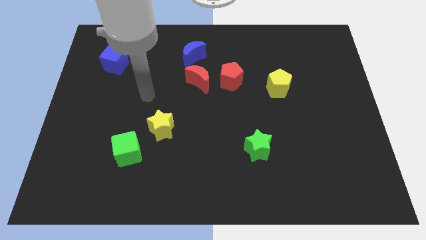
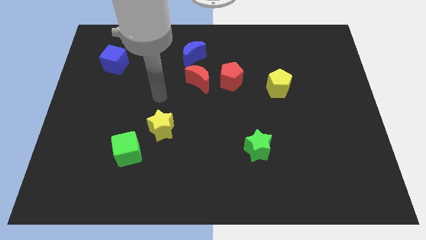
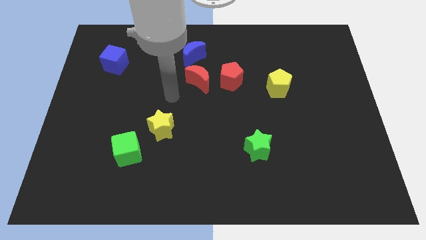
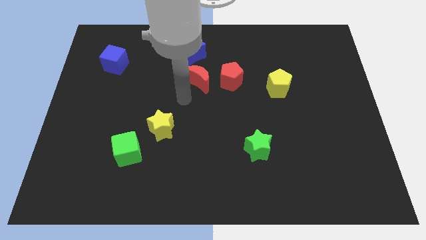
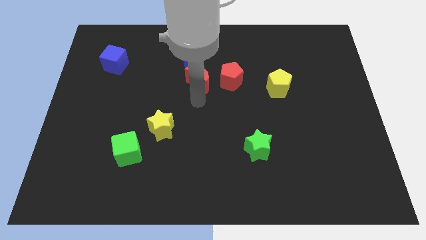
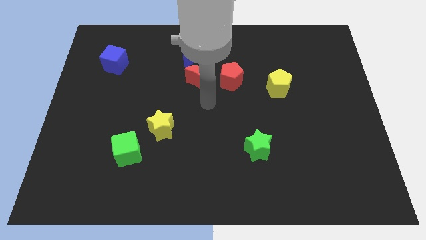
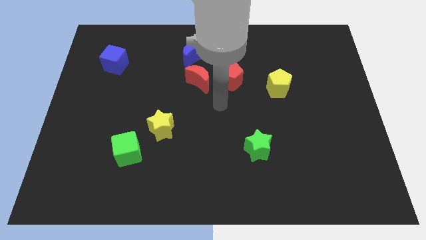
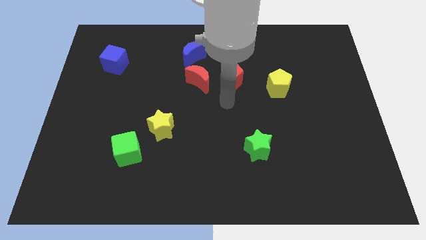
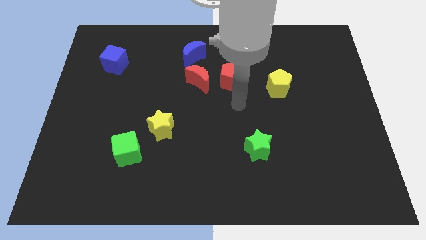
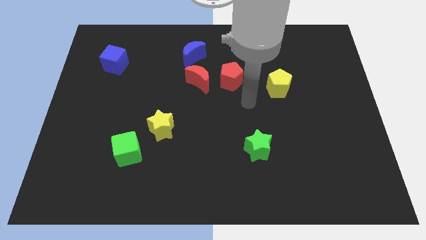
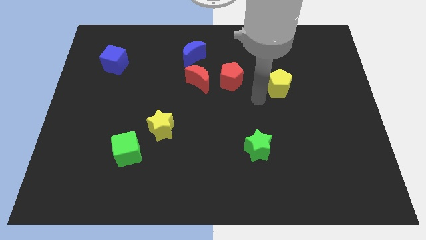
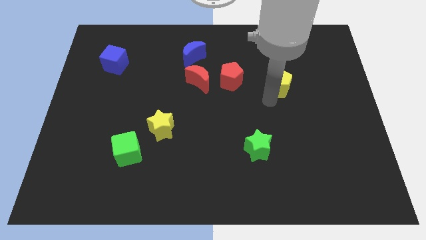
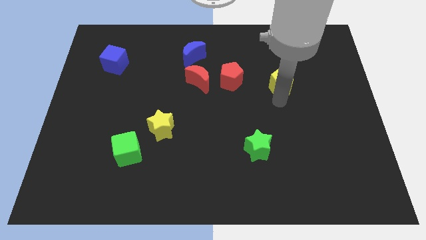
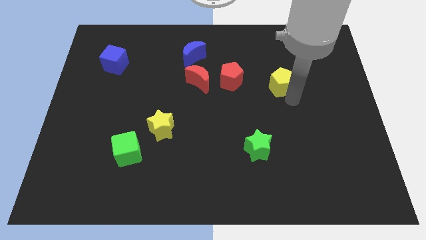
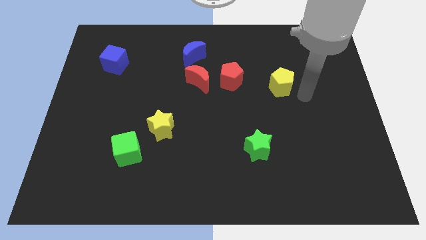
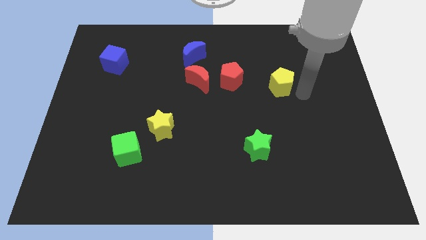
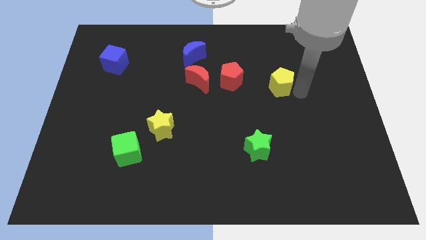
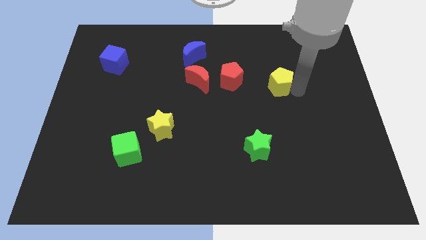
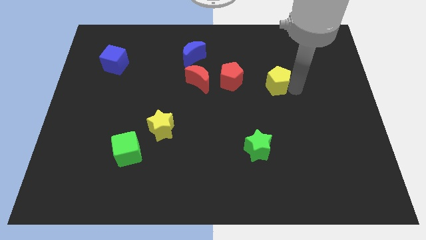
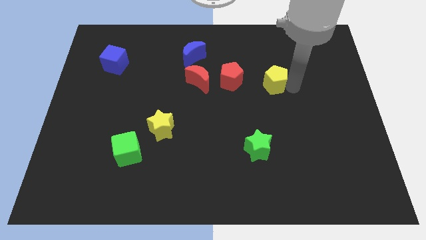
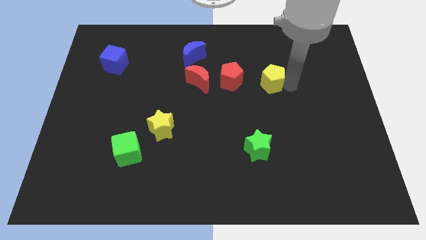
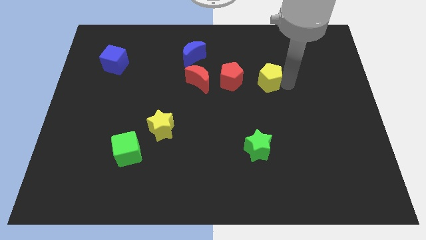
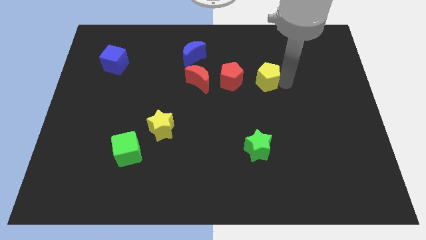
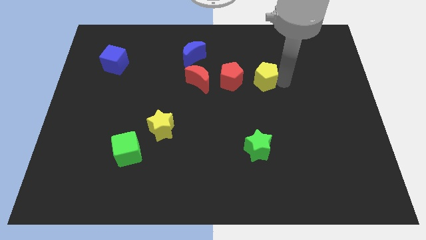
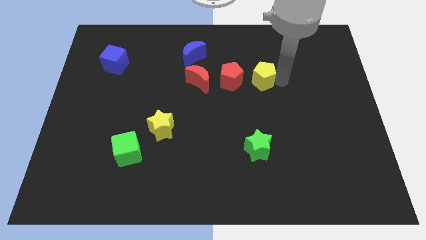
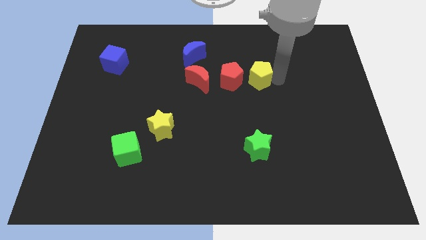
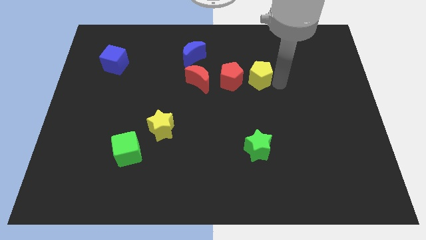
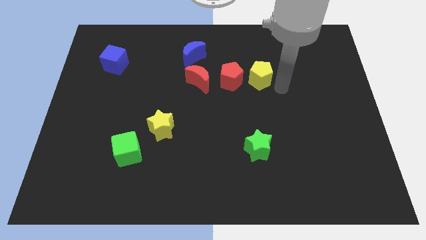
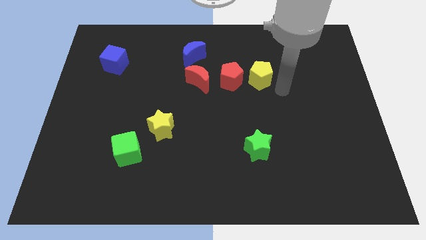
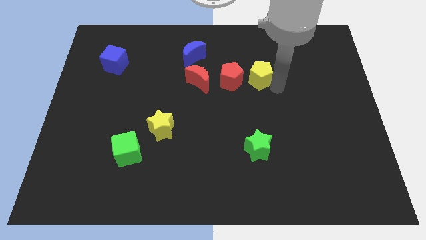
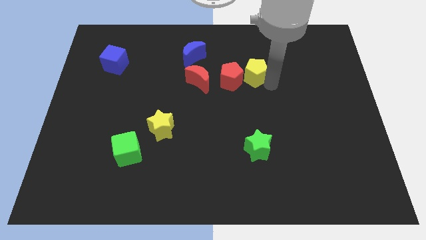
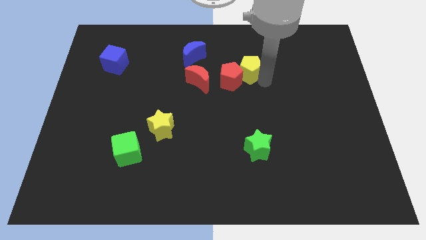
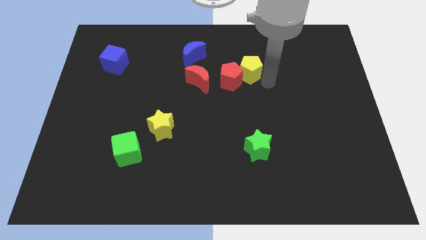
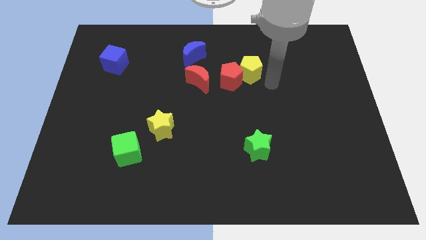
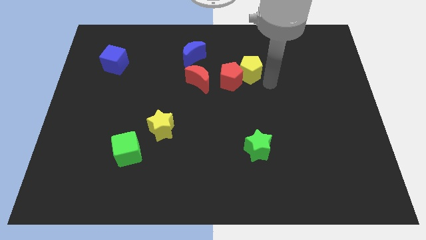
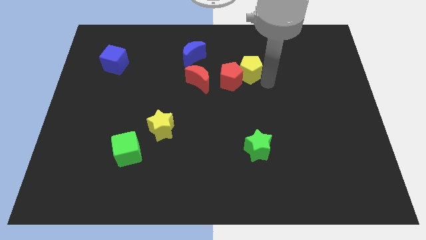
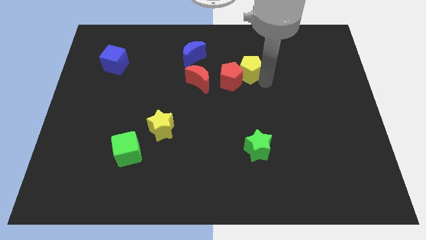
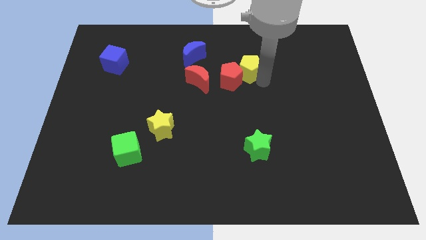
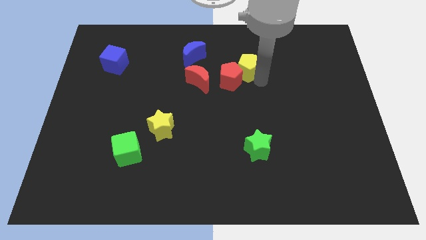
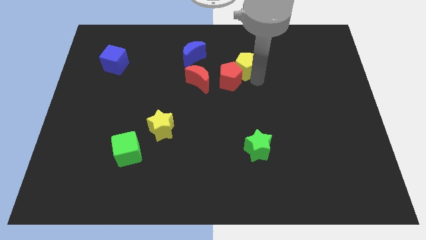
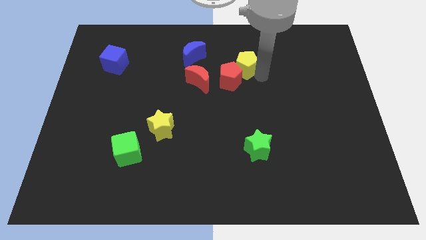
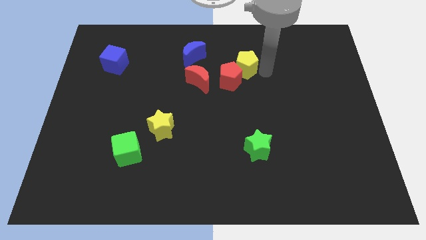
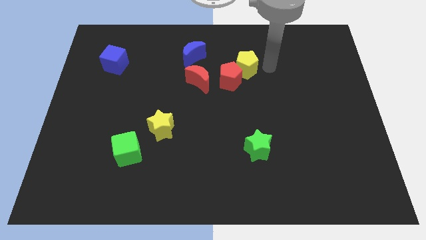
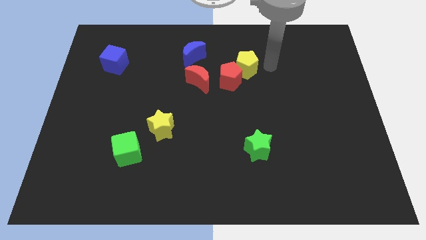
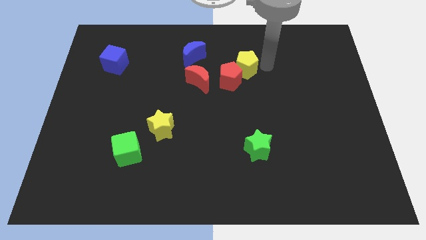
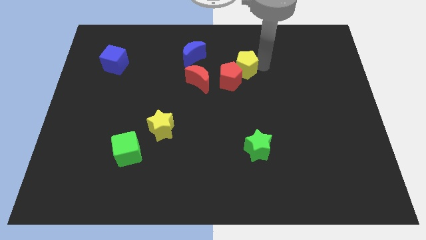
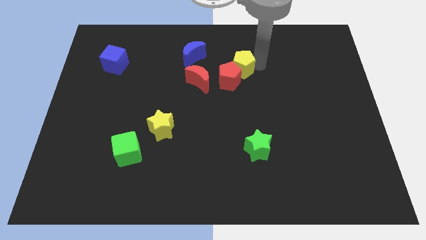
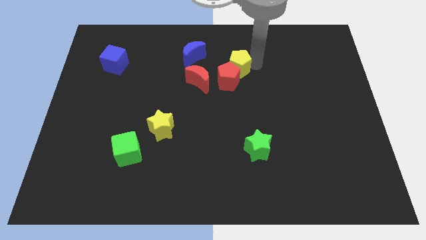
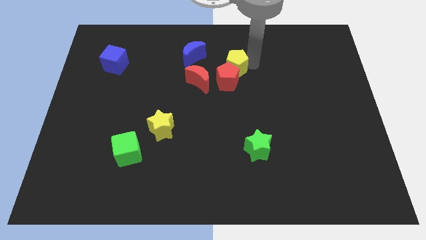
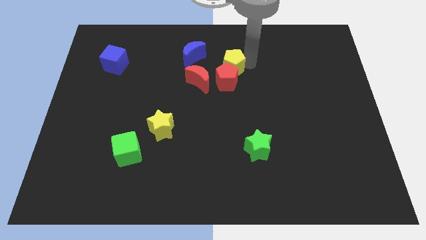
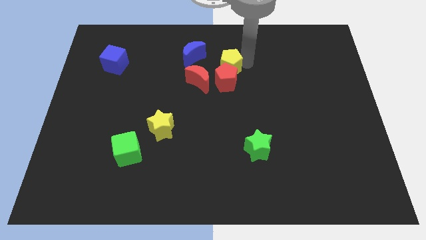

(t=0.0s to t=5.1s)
put the yellow pentagon to the bottom right of the blue moon

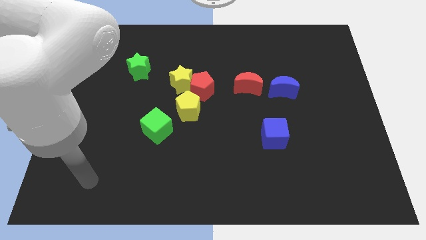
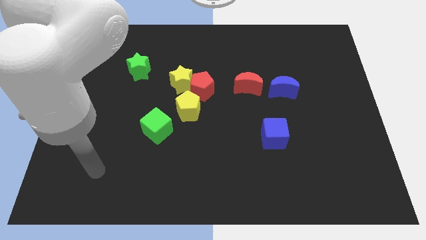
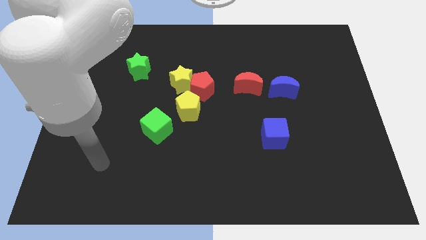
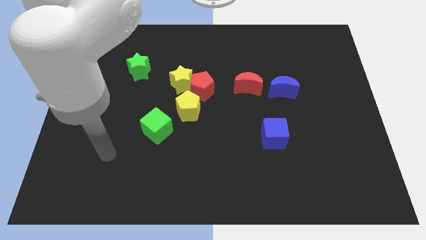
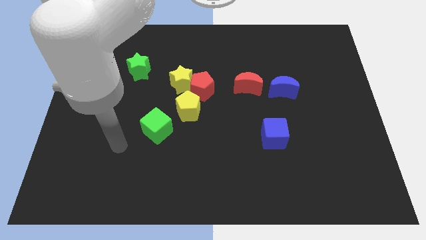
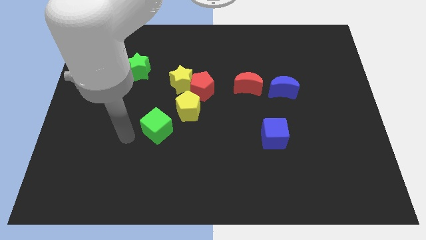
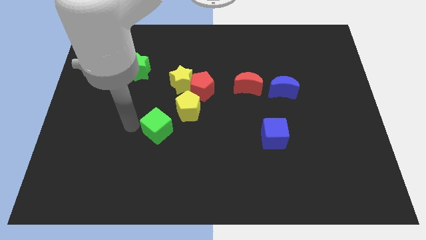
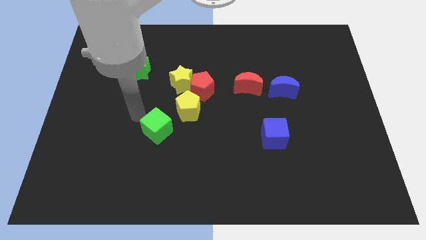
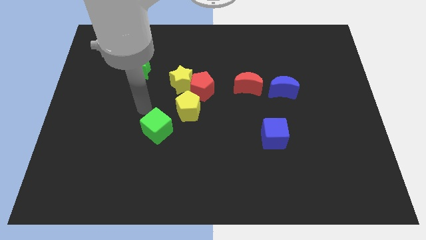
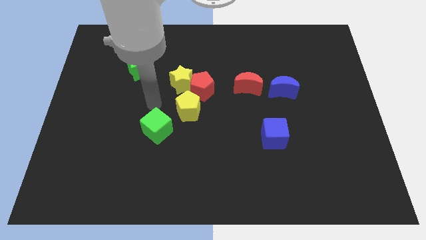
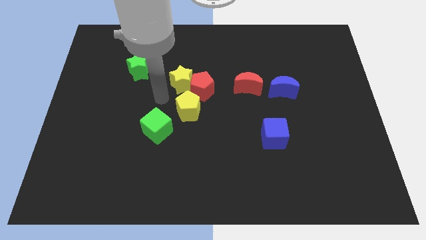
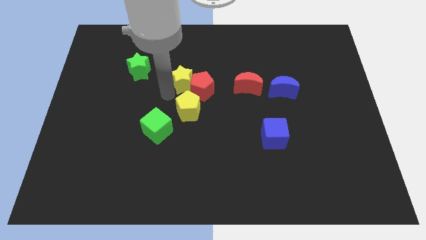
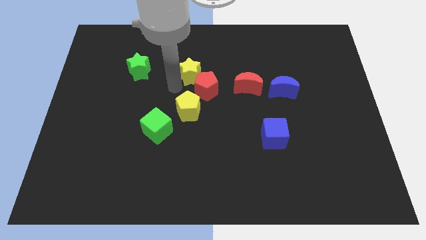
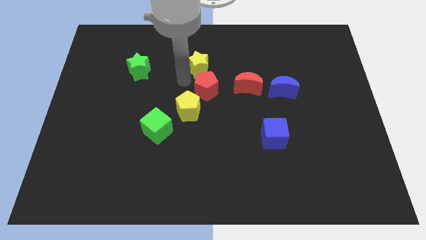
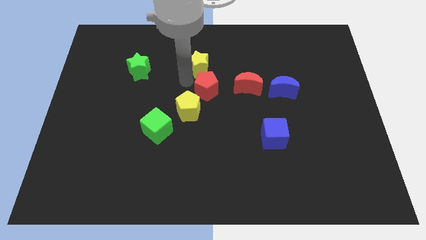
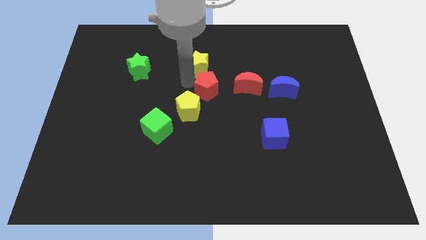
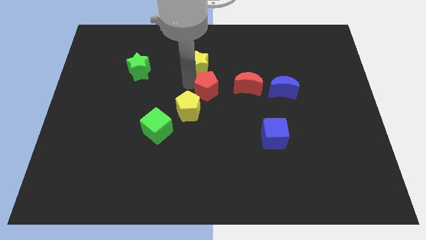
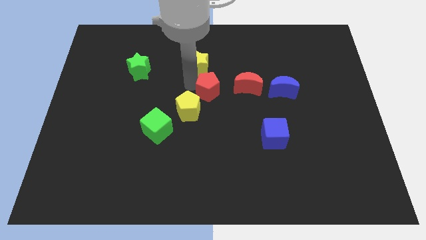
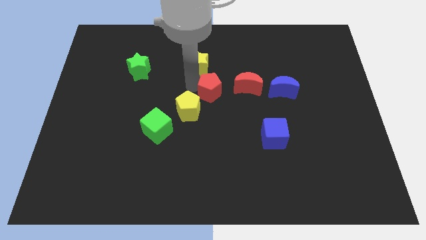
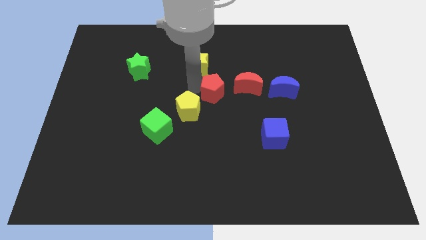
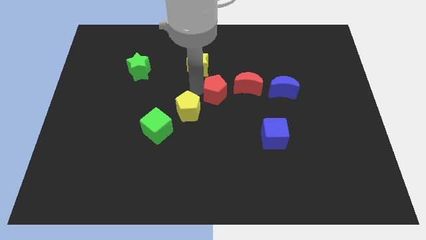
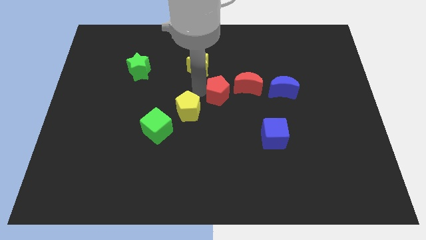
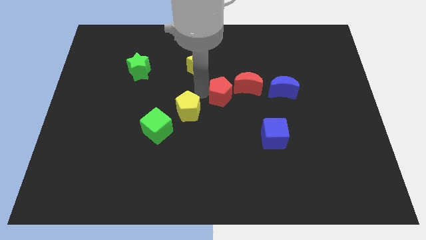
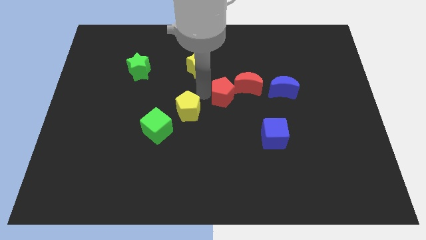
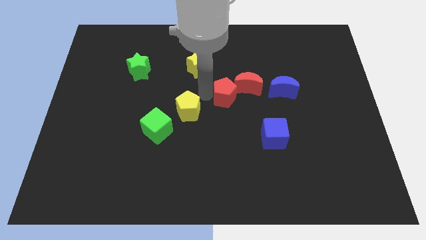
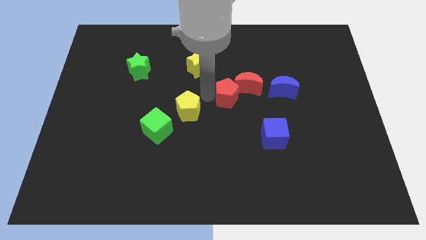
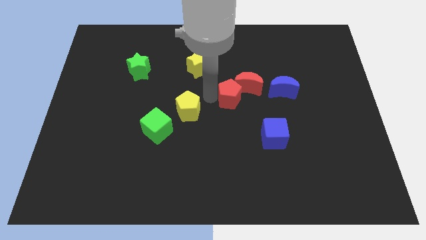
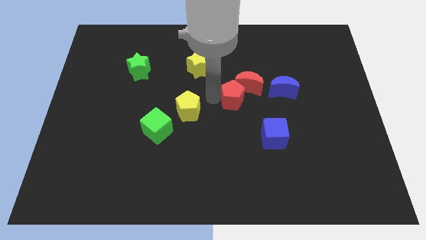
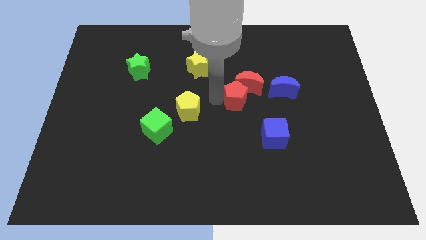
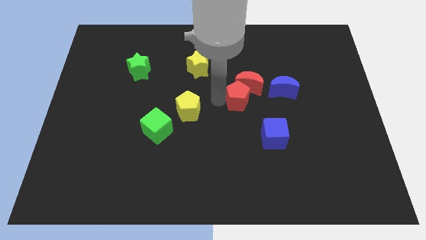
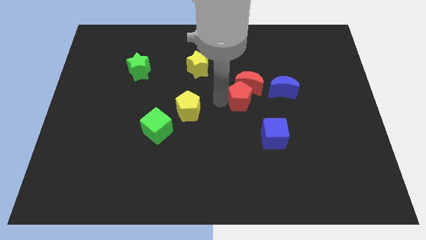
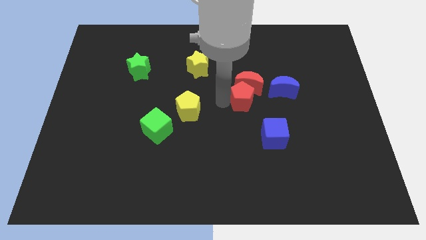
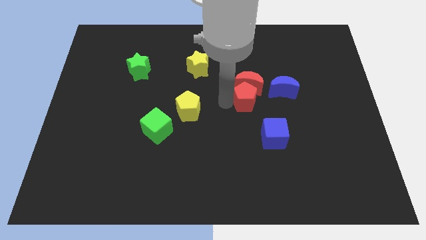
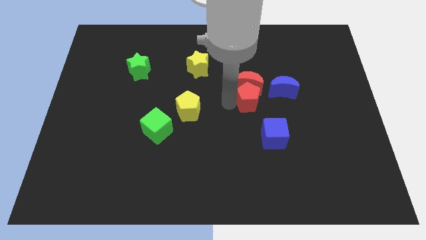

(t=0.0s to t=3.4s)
put the red pentagon to the top of the blue cube
